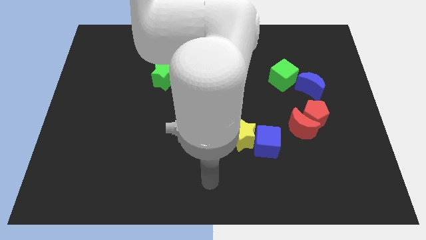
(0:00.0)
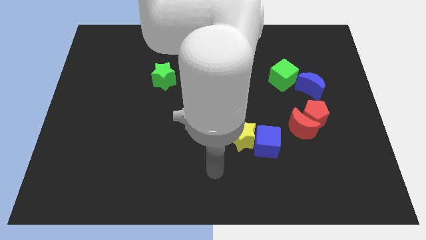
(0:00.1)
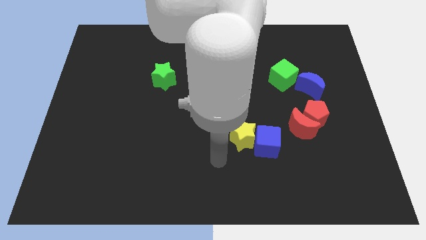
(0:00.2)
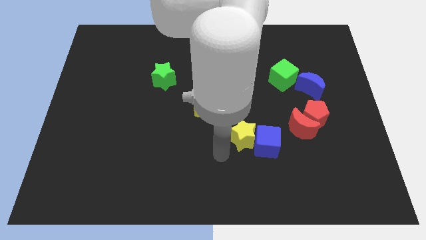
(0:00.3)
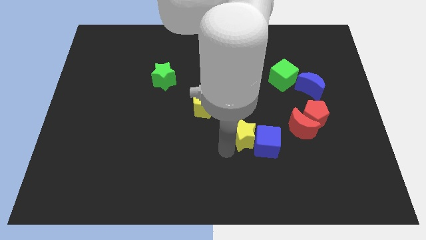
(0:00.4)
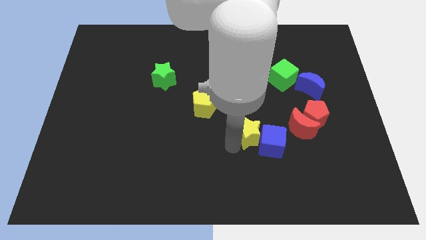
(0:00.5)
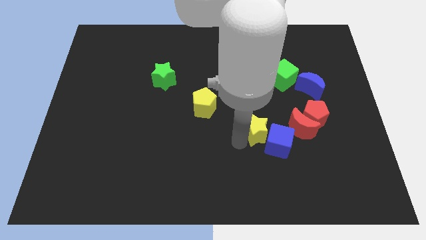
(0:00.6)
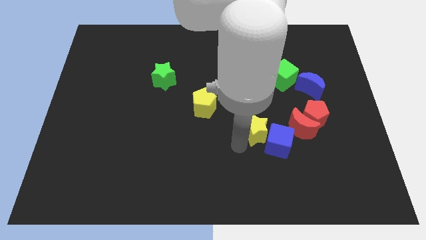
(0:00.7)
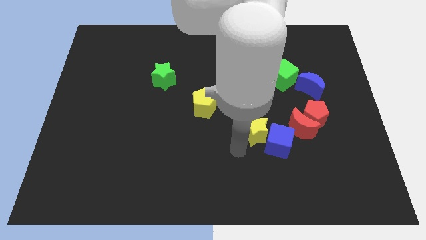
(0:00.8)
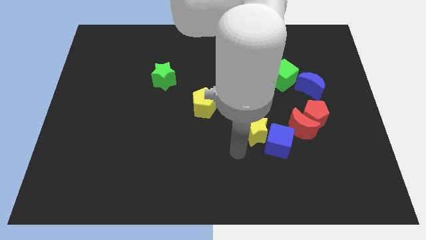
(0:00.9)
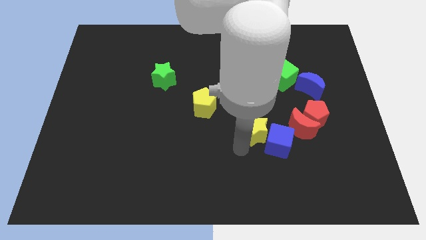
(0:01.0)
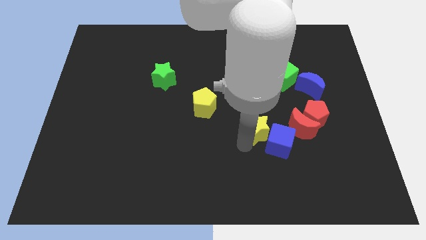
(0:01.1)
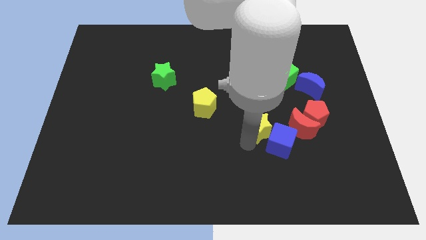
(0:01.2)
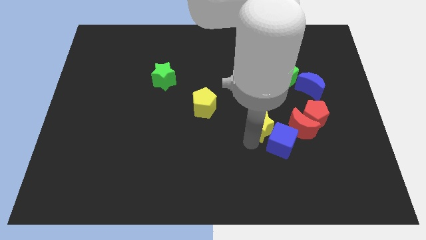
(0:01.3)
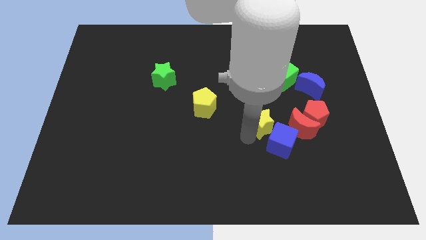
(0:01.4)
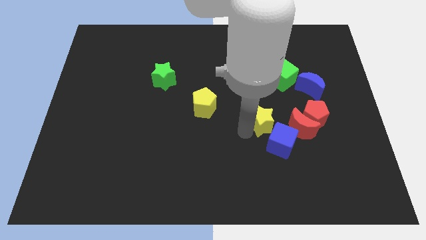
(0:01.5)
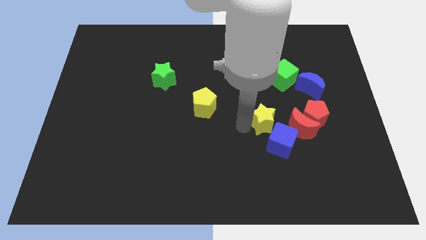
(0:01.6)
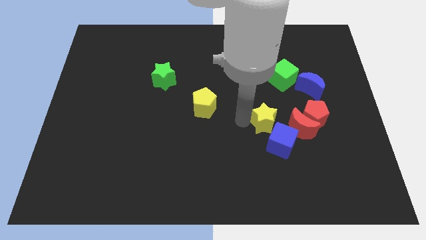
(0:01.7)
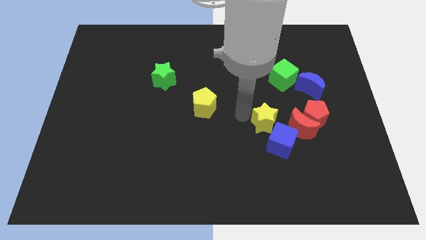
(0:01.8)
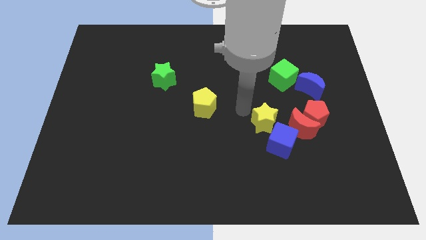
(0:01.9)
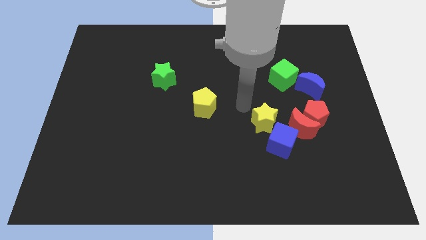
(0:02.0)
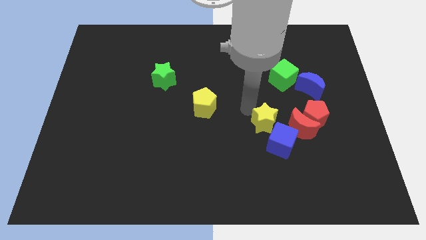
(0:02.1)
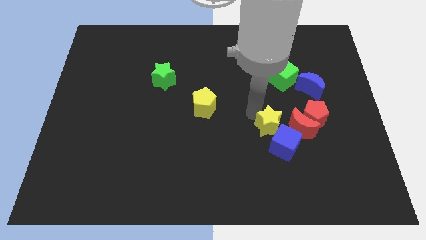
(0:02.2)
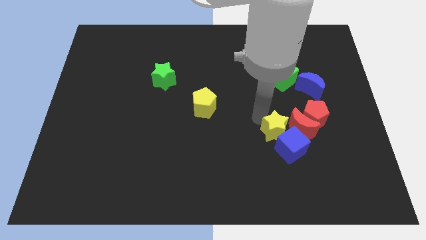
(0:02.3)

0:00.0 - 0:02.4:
move the yellow star a little bit right

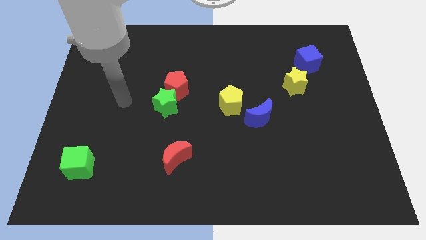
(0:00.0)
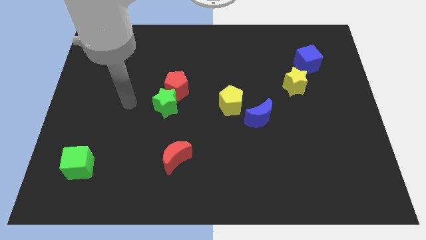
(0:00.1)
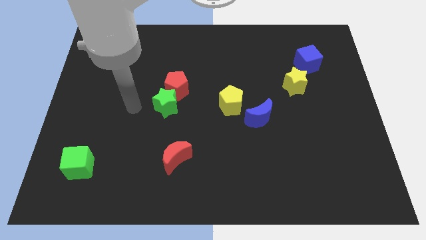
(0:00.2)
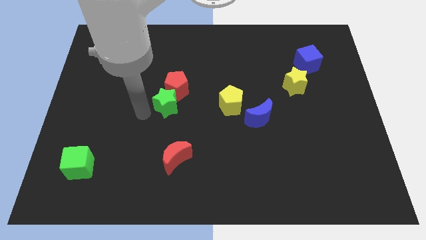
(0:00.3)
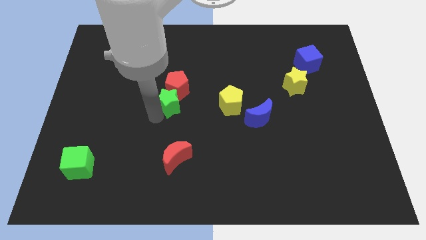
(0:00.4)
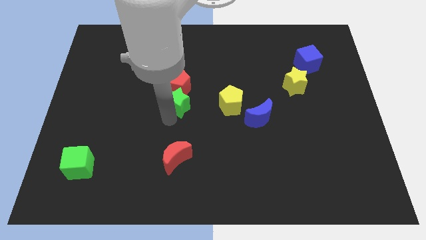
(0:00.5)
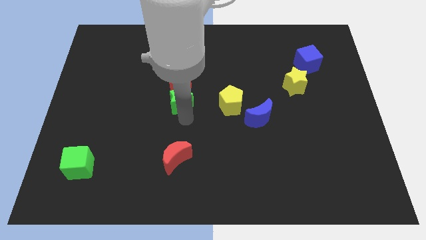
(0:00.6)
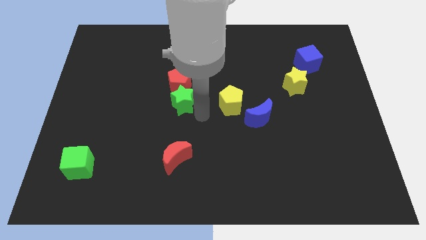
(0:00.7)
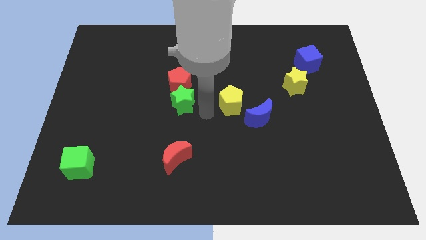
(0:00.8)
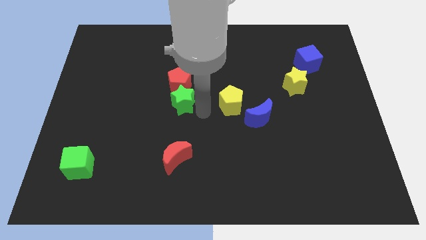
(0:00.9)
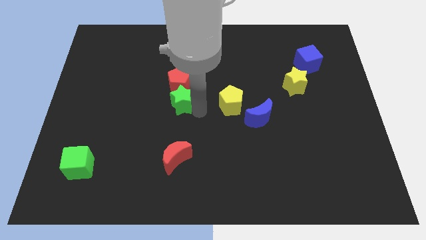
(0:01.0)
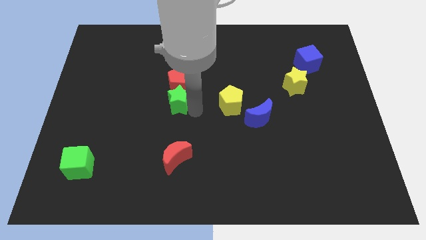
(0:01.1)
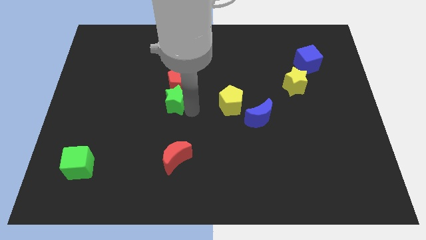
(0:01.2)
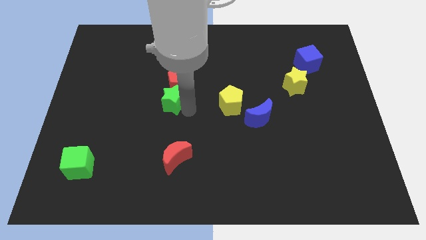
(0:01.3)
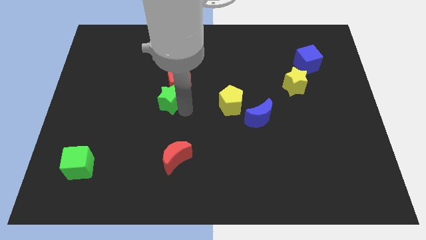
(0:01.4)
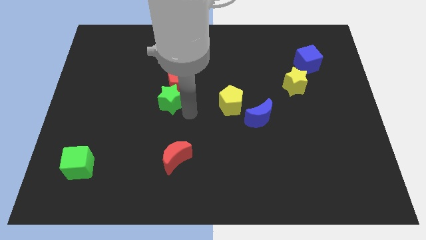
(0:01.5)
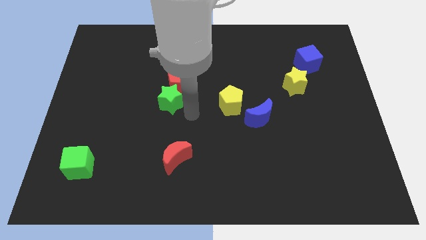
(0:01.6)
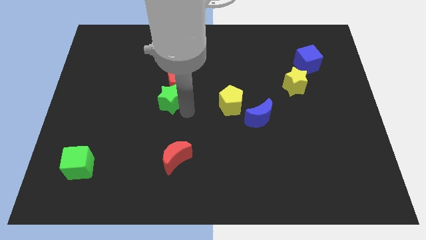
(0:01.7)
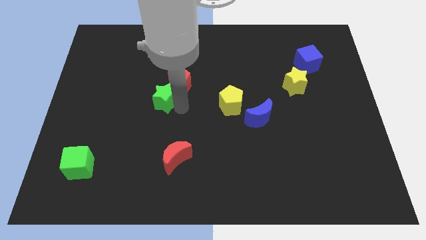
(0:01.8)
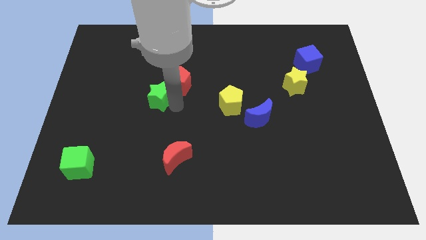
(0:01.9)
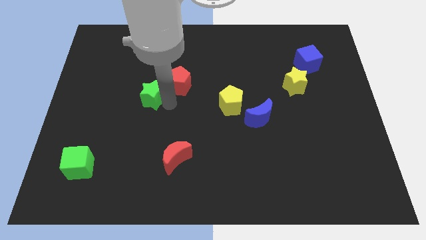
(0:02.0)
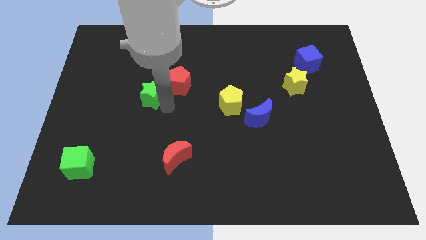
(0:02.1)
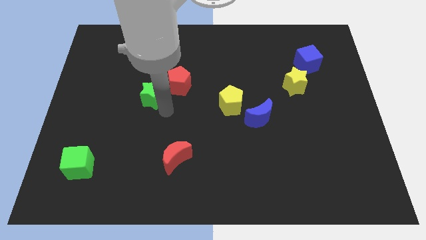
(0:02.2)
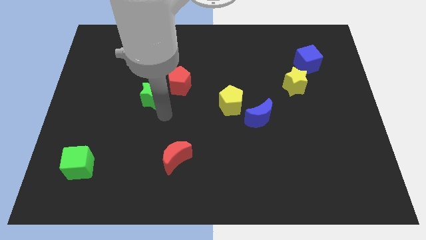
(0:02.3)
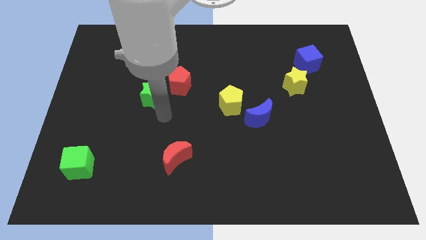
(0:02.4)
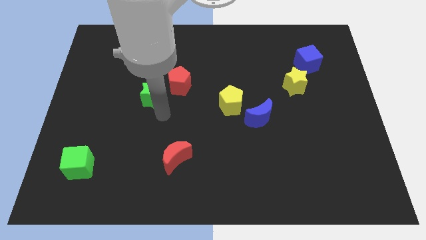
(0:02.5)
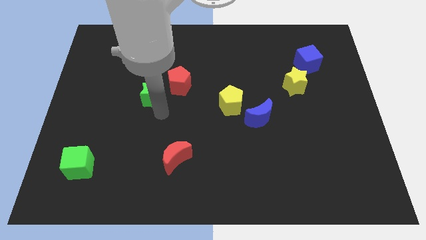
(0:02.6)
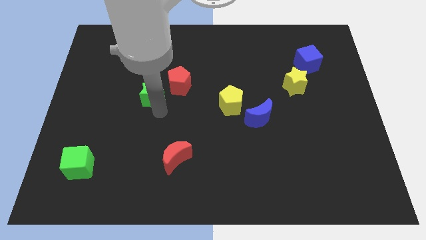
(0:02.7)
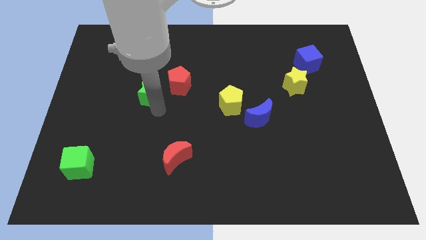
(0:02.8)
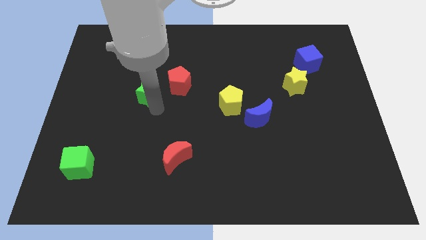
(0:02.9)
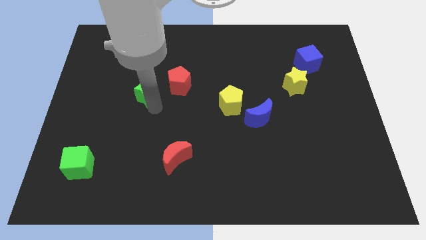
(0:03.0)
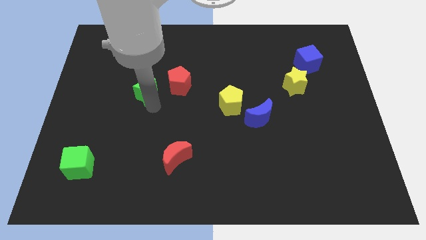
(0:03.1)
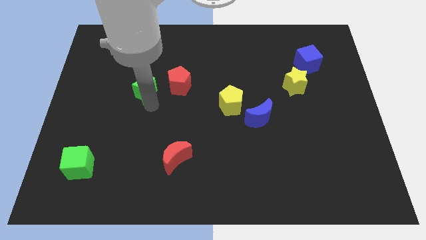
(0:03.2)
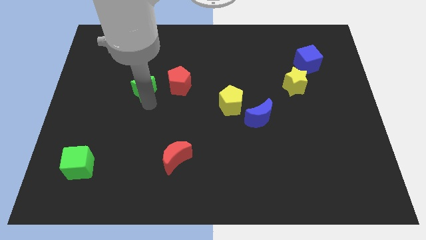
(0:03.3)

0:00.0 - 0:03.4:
move the green star upwards and then to the left a bit

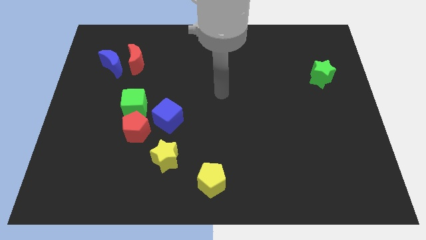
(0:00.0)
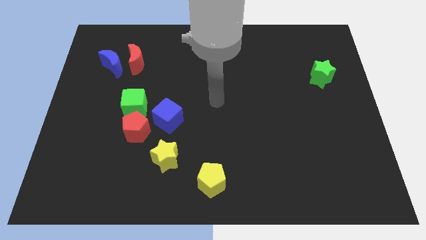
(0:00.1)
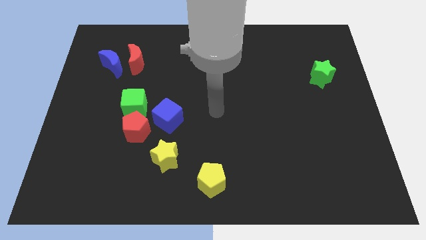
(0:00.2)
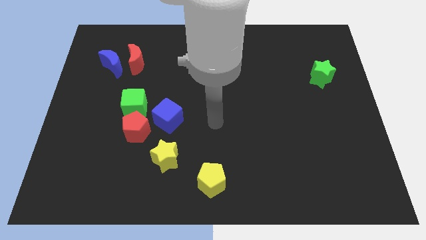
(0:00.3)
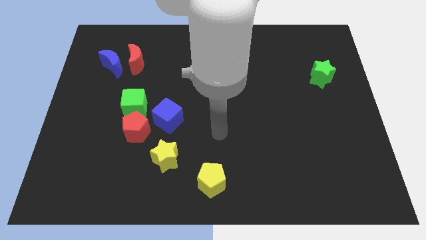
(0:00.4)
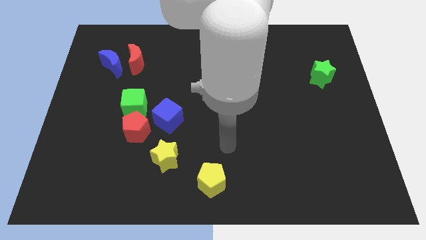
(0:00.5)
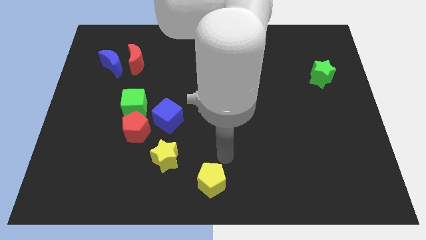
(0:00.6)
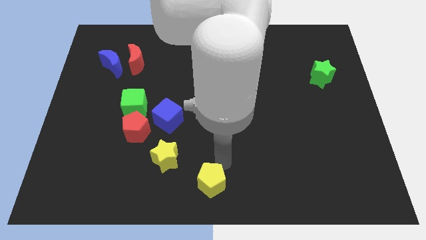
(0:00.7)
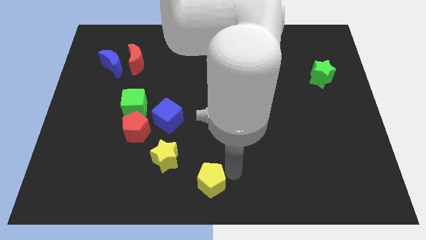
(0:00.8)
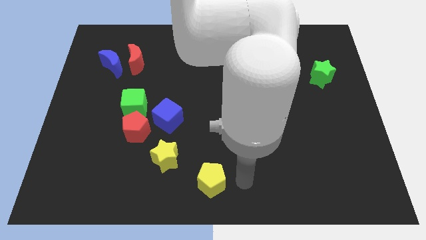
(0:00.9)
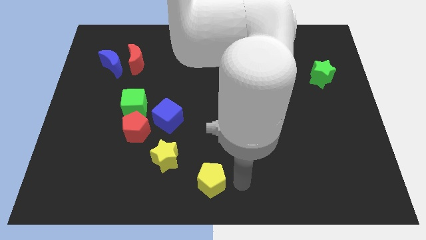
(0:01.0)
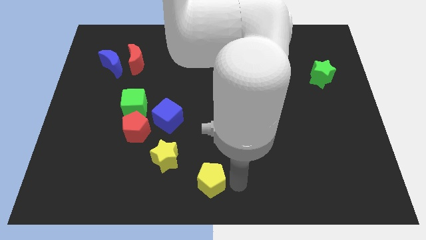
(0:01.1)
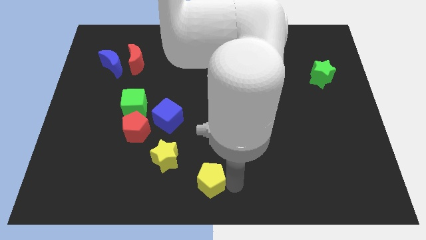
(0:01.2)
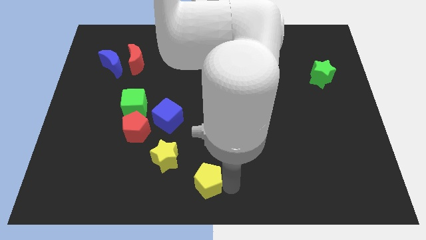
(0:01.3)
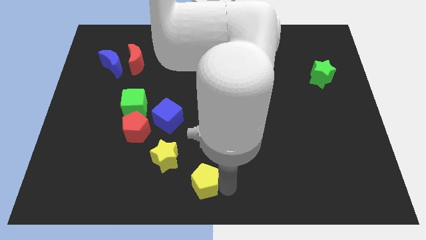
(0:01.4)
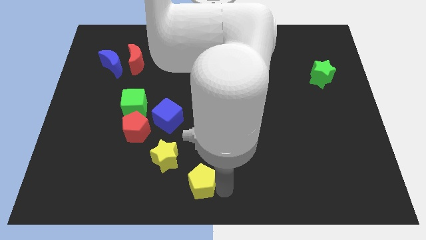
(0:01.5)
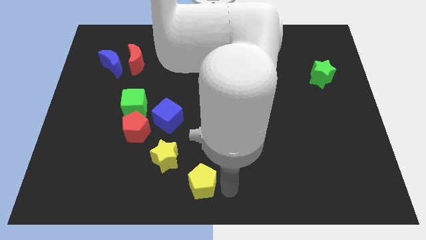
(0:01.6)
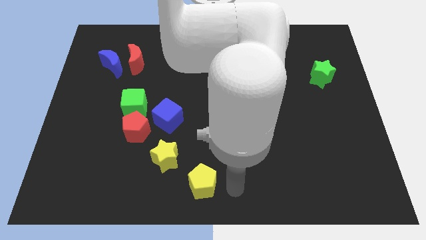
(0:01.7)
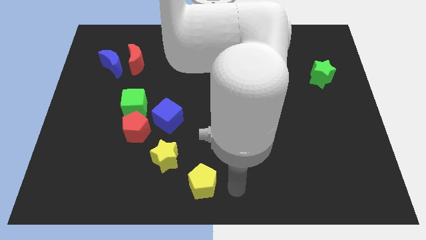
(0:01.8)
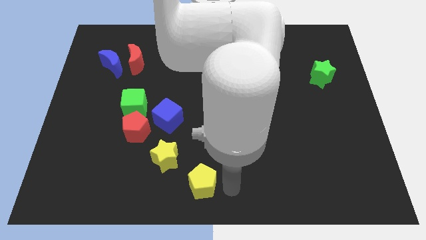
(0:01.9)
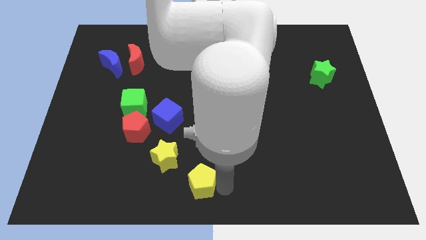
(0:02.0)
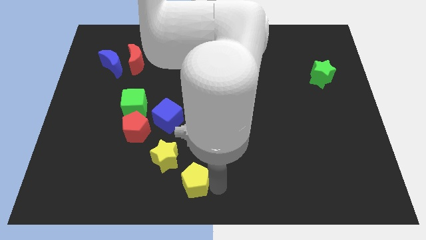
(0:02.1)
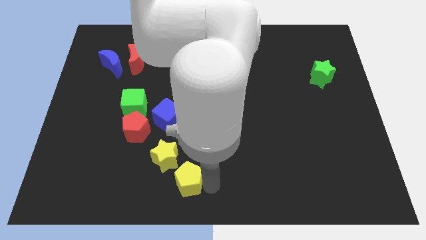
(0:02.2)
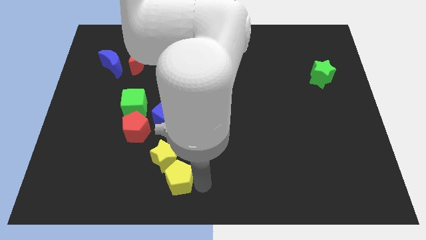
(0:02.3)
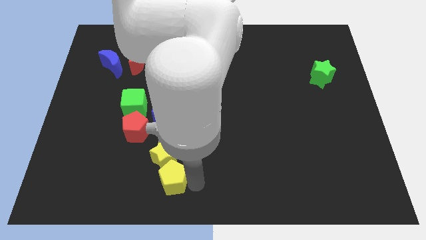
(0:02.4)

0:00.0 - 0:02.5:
slightly slide the yellow pentagon left

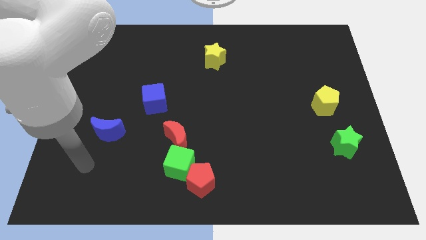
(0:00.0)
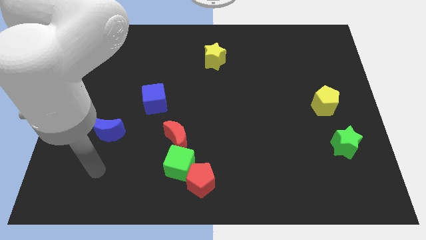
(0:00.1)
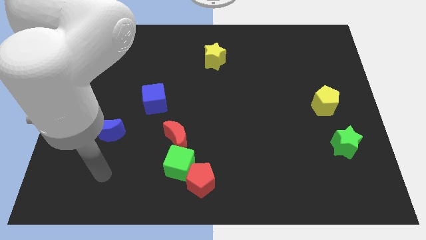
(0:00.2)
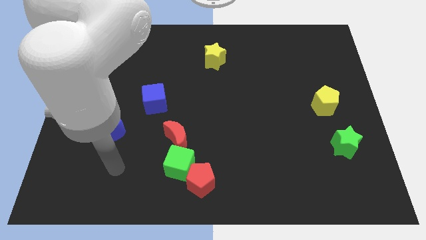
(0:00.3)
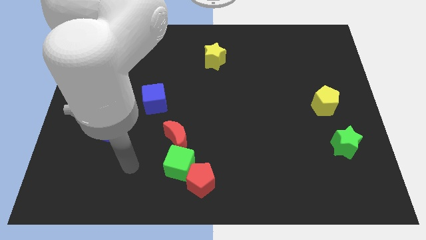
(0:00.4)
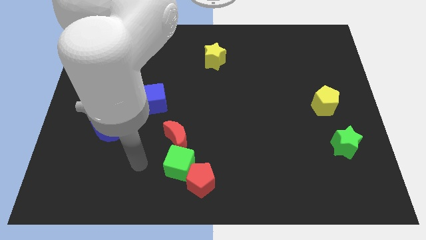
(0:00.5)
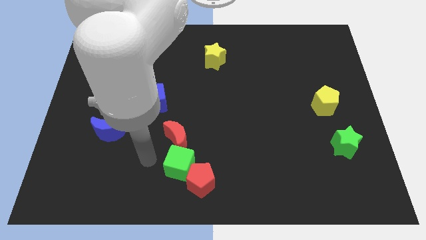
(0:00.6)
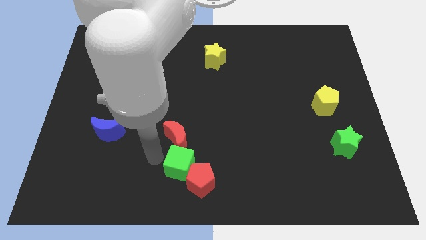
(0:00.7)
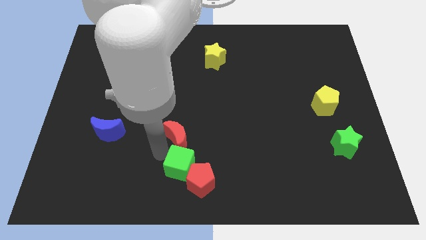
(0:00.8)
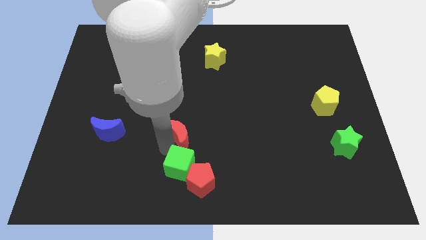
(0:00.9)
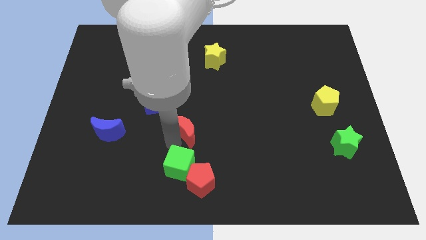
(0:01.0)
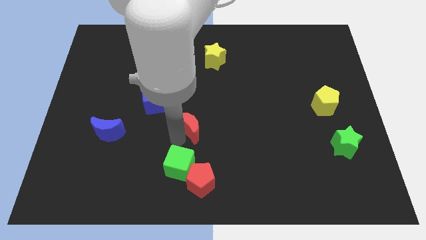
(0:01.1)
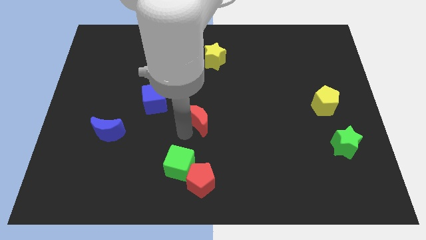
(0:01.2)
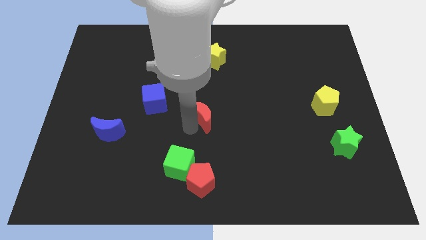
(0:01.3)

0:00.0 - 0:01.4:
slightly slide the red moon upwards and right
